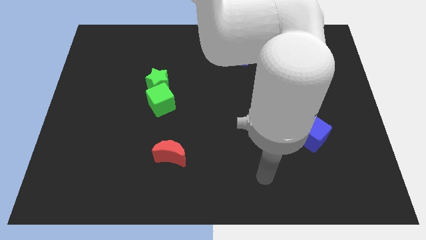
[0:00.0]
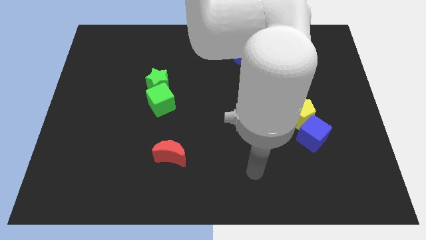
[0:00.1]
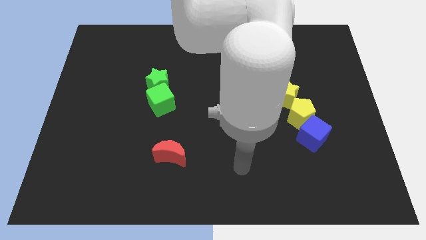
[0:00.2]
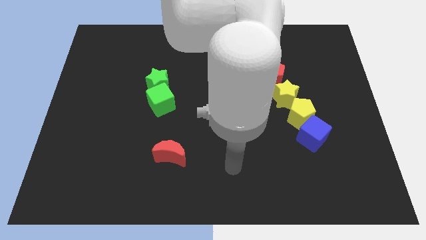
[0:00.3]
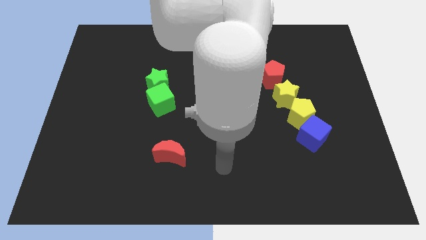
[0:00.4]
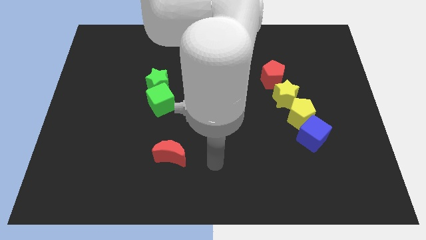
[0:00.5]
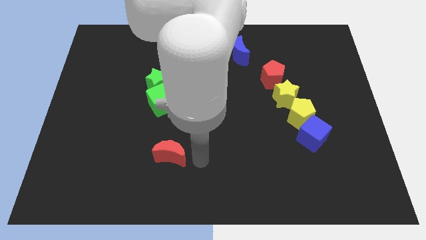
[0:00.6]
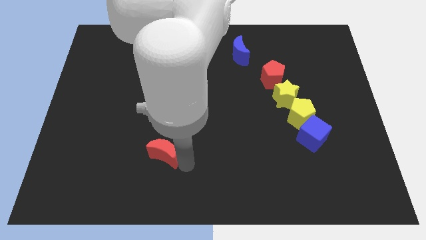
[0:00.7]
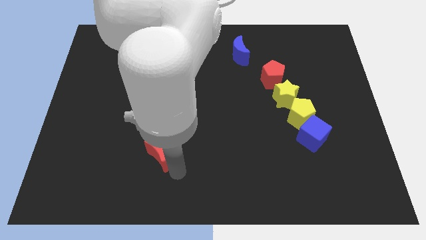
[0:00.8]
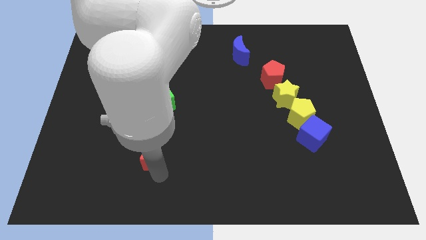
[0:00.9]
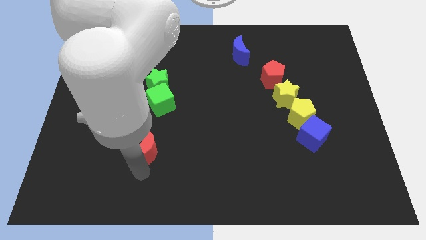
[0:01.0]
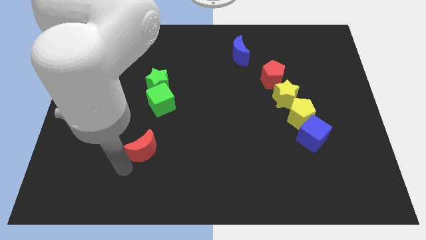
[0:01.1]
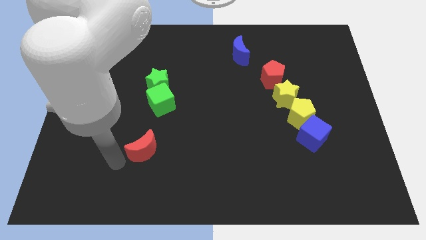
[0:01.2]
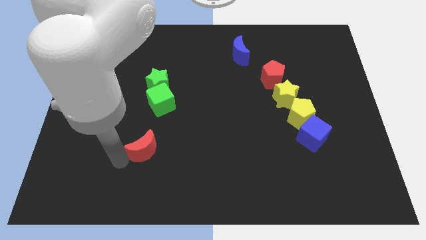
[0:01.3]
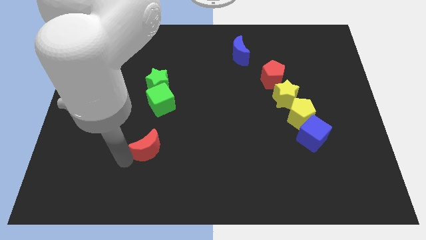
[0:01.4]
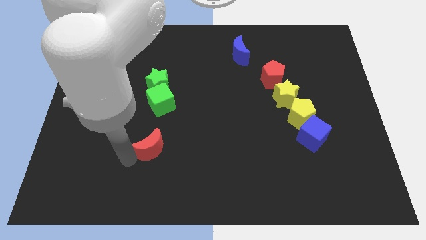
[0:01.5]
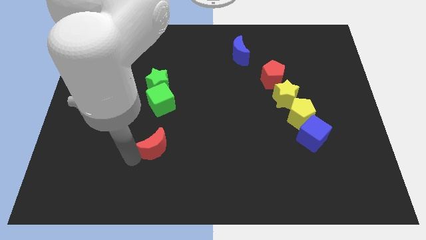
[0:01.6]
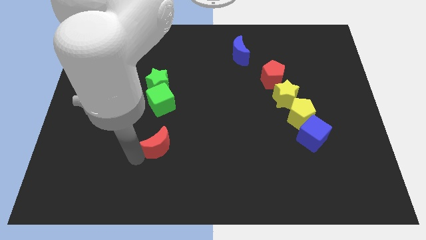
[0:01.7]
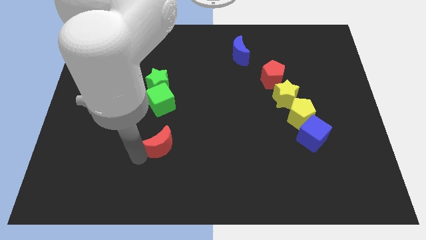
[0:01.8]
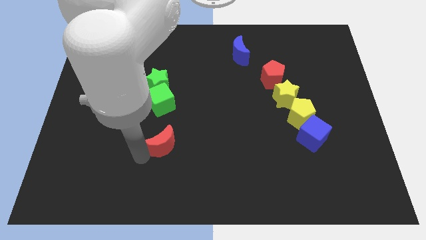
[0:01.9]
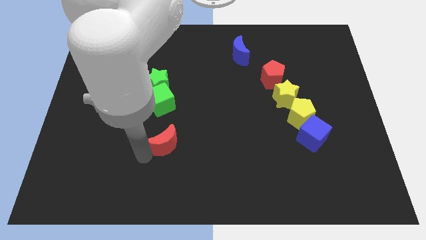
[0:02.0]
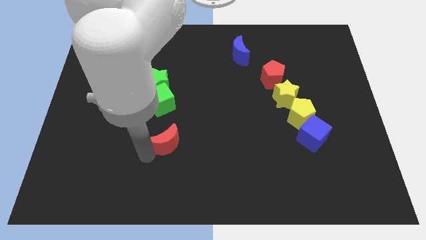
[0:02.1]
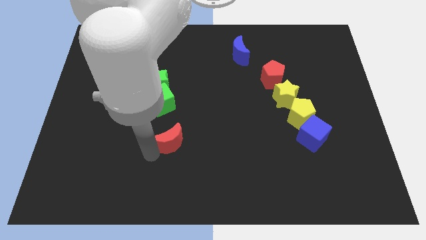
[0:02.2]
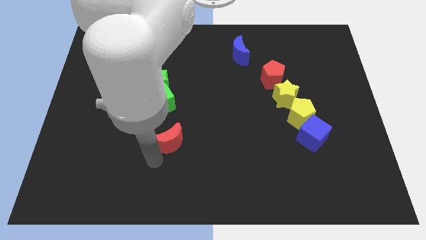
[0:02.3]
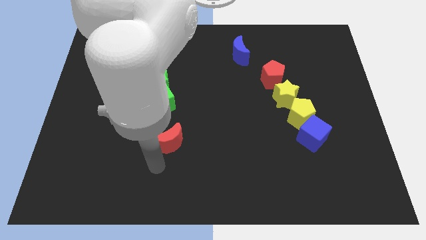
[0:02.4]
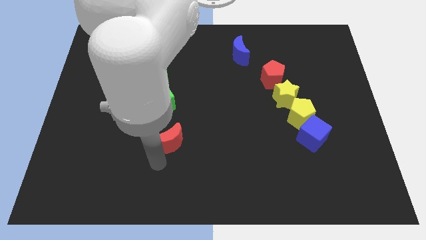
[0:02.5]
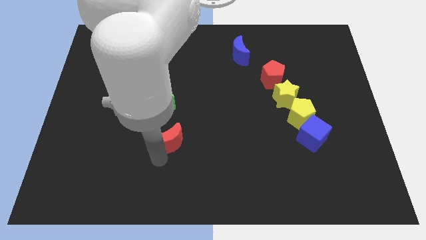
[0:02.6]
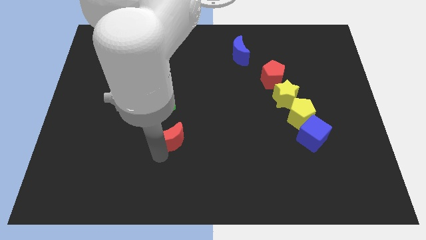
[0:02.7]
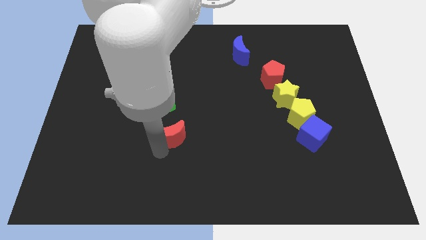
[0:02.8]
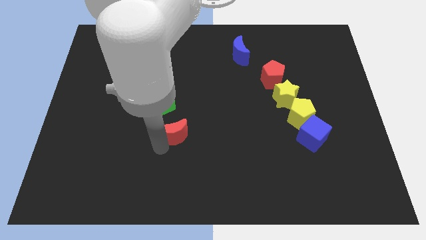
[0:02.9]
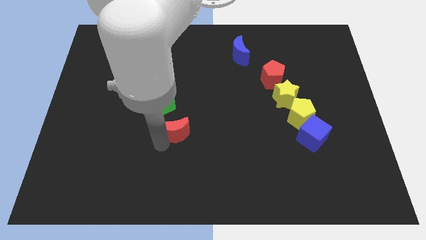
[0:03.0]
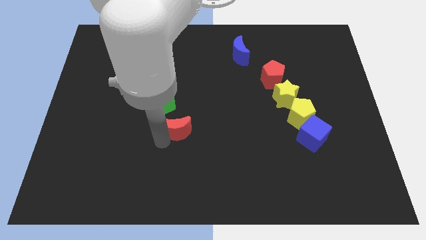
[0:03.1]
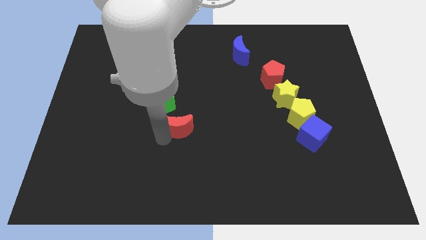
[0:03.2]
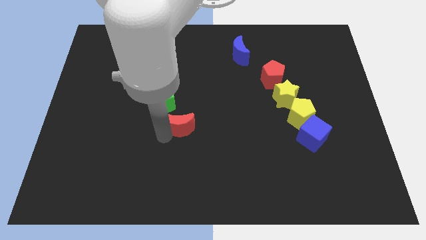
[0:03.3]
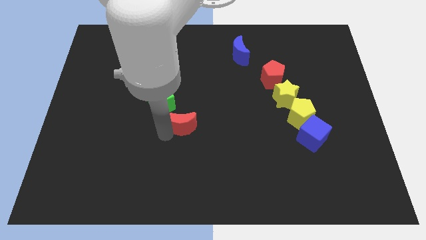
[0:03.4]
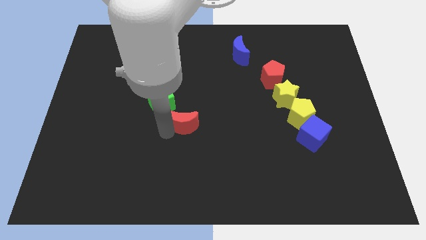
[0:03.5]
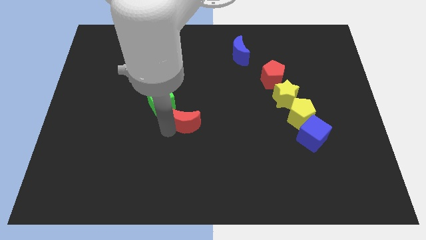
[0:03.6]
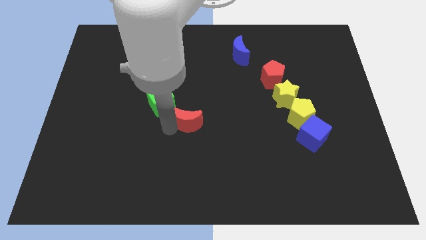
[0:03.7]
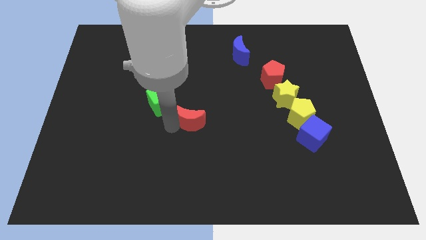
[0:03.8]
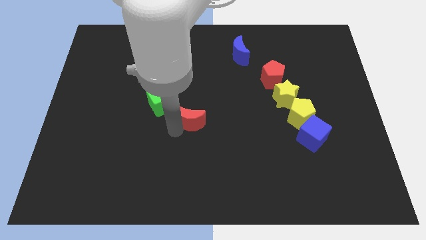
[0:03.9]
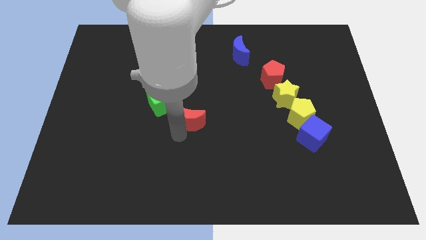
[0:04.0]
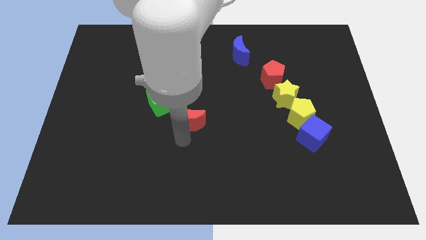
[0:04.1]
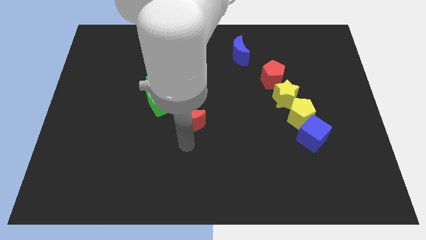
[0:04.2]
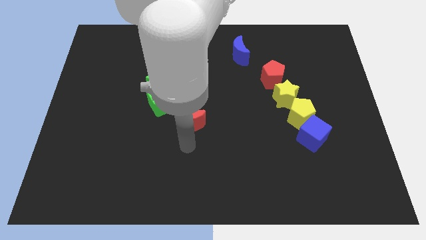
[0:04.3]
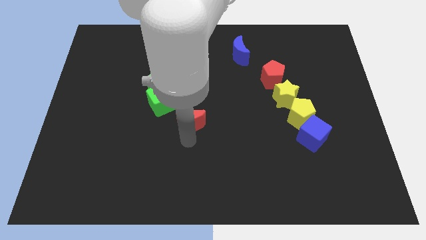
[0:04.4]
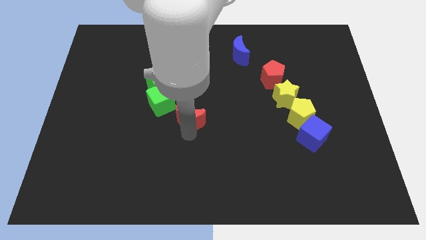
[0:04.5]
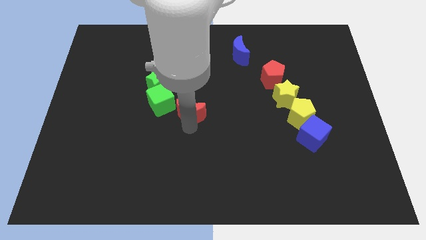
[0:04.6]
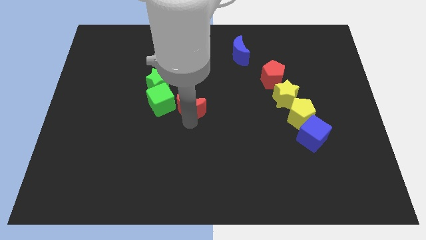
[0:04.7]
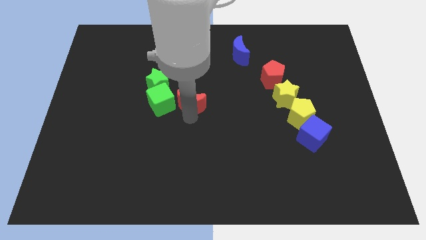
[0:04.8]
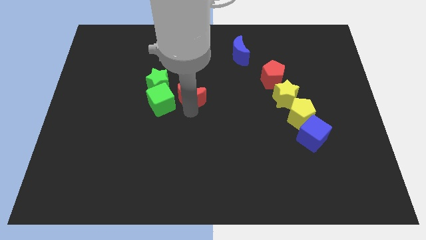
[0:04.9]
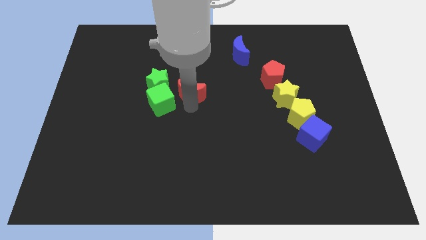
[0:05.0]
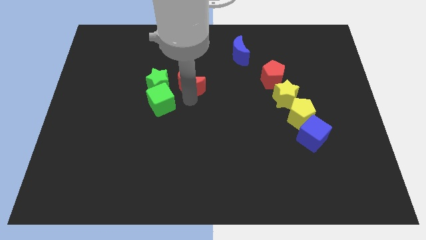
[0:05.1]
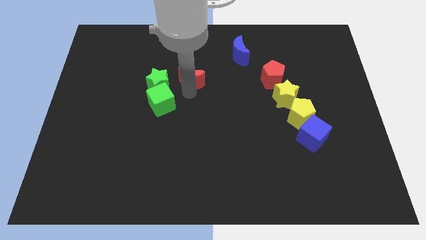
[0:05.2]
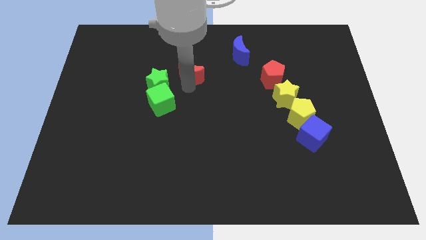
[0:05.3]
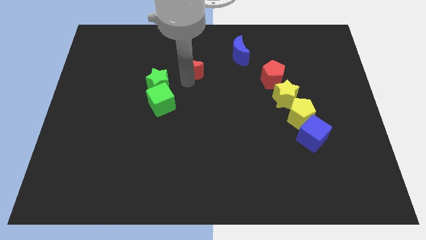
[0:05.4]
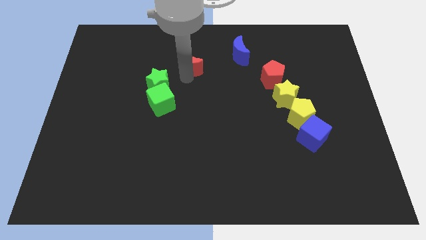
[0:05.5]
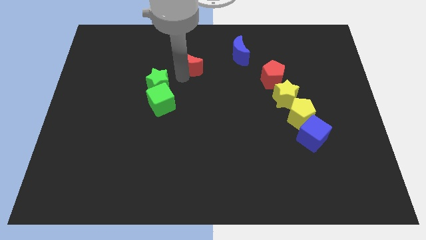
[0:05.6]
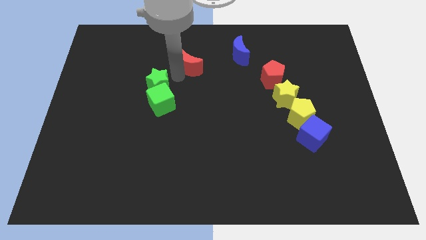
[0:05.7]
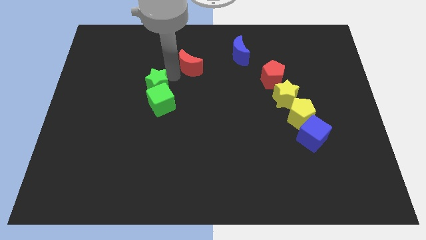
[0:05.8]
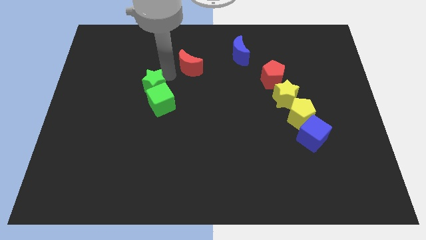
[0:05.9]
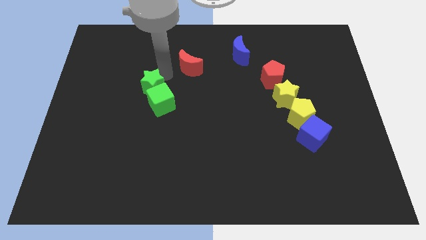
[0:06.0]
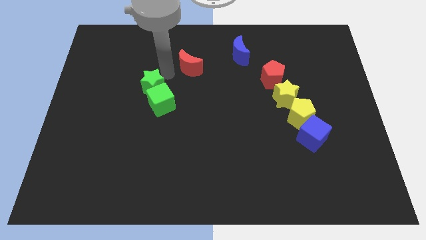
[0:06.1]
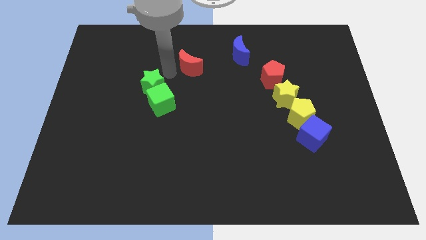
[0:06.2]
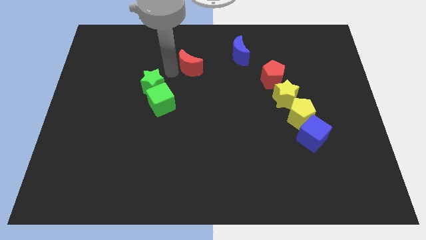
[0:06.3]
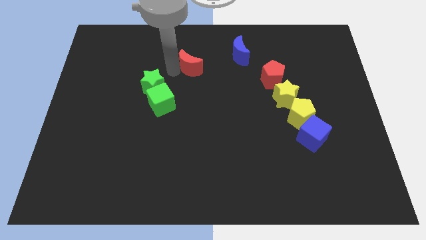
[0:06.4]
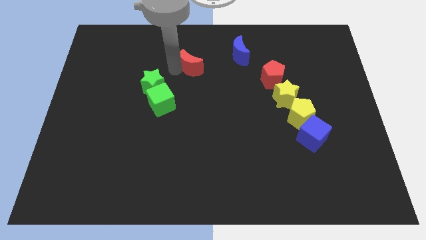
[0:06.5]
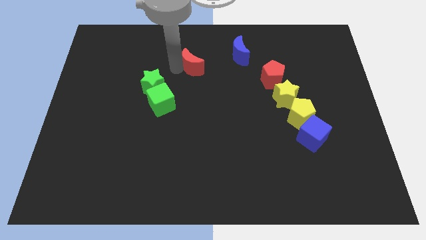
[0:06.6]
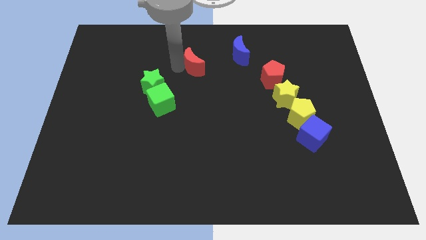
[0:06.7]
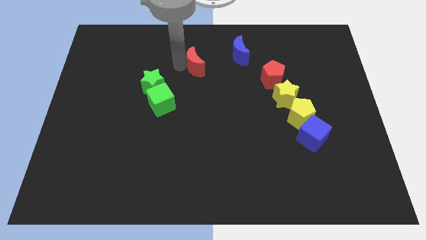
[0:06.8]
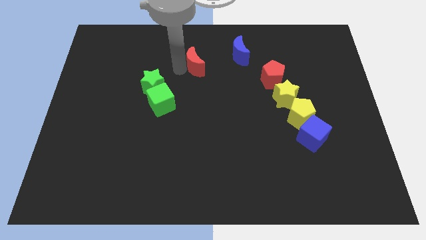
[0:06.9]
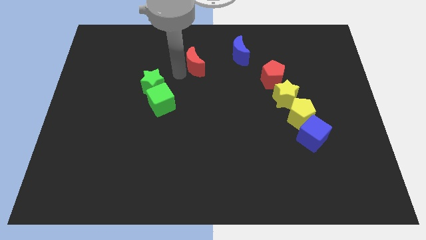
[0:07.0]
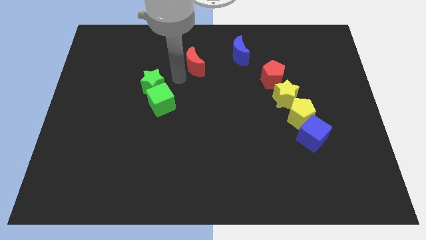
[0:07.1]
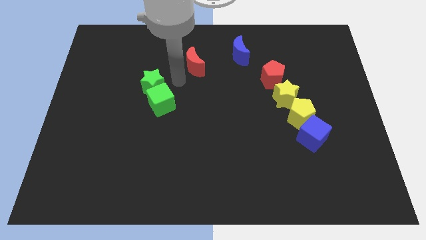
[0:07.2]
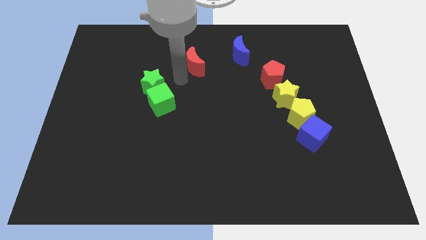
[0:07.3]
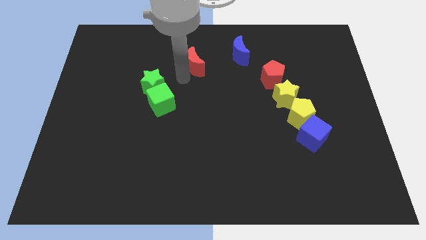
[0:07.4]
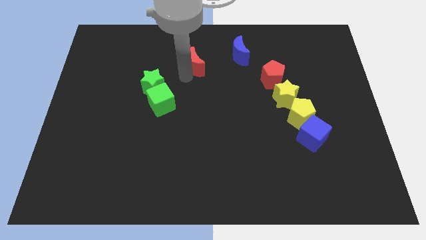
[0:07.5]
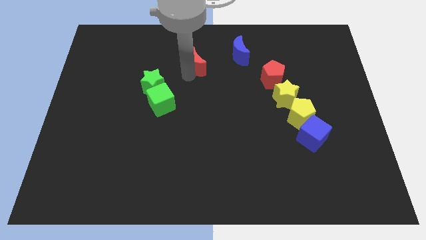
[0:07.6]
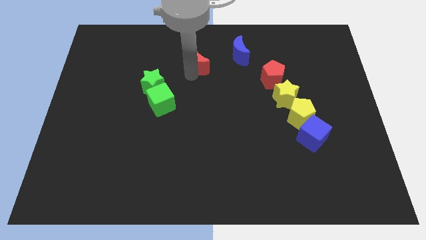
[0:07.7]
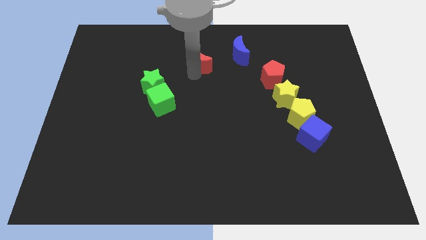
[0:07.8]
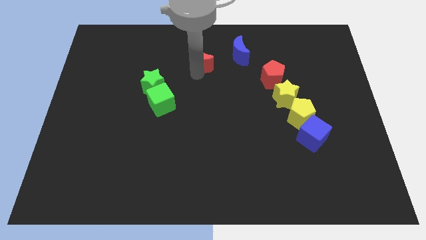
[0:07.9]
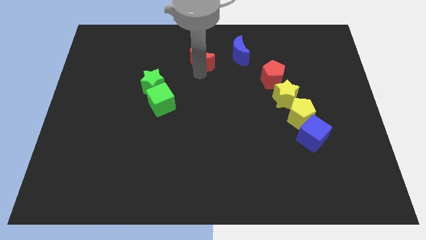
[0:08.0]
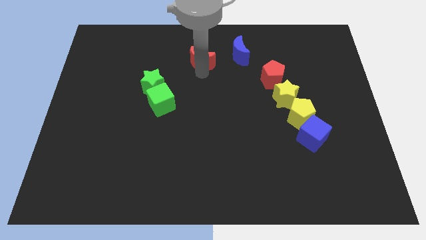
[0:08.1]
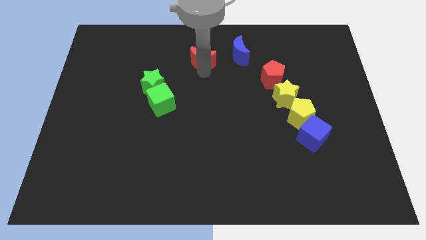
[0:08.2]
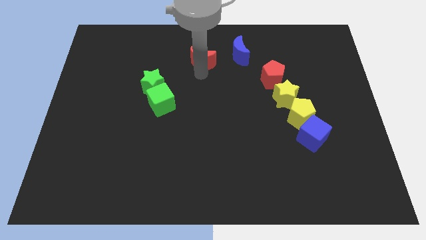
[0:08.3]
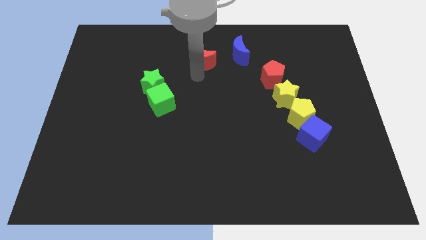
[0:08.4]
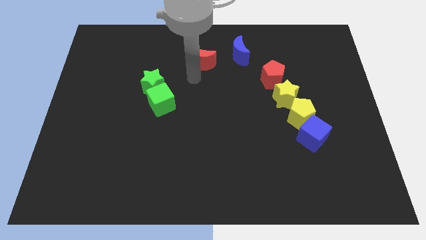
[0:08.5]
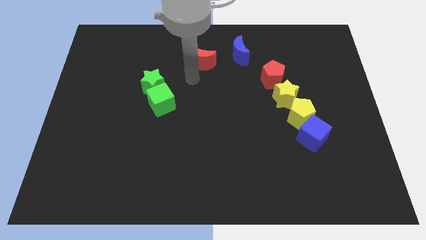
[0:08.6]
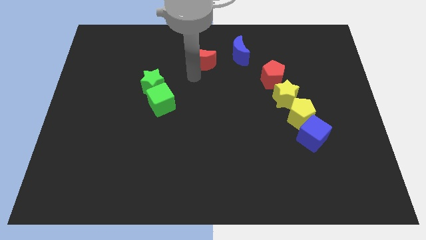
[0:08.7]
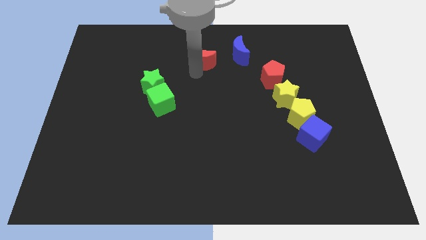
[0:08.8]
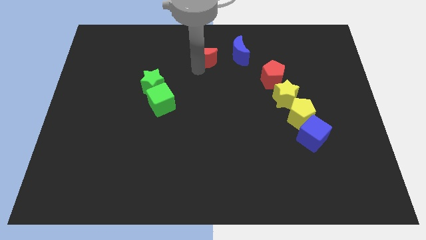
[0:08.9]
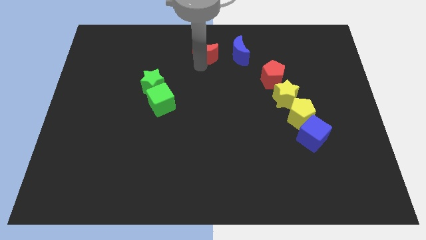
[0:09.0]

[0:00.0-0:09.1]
push the red moon to the towards your base
